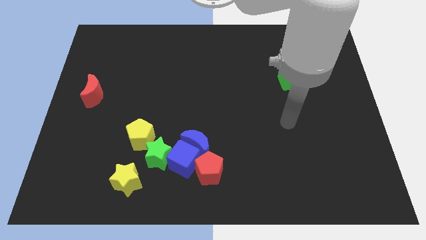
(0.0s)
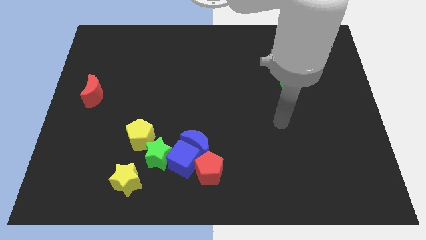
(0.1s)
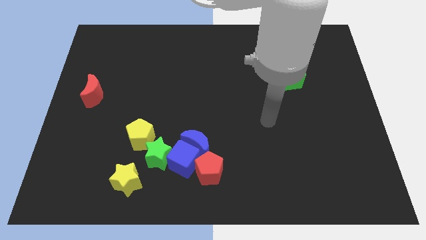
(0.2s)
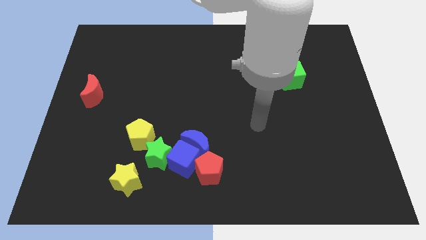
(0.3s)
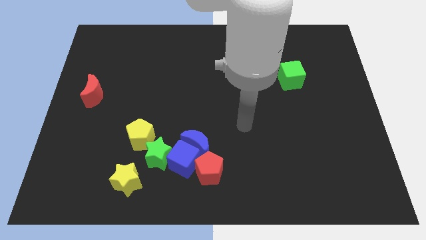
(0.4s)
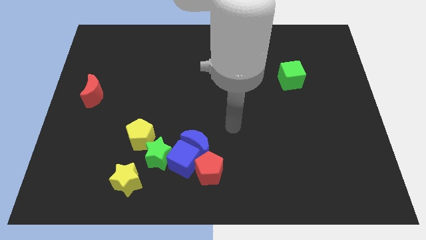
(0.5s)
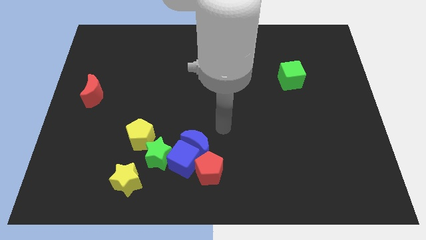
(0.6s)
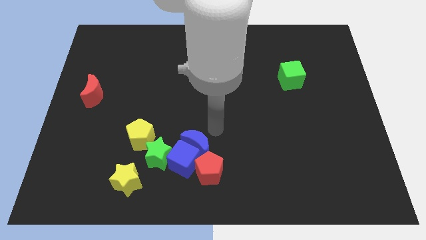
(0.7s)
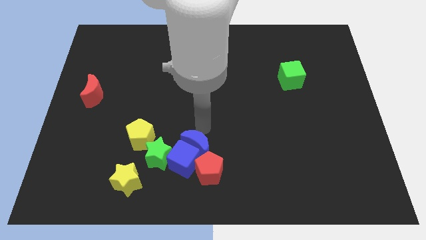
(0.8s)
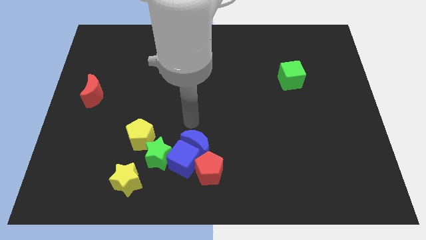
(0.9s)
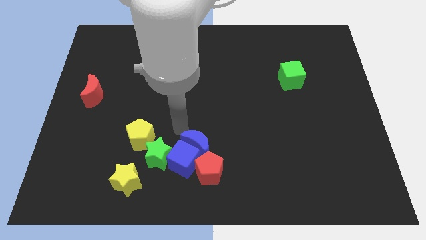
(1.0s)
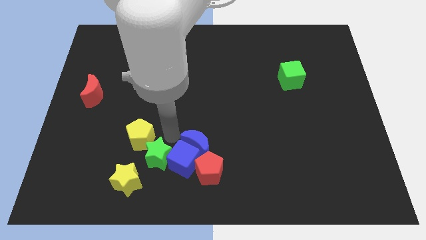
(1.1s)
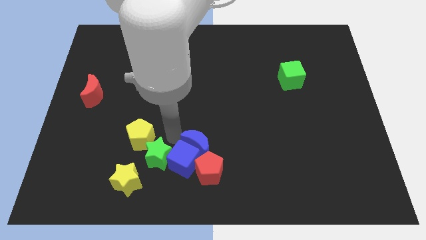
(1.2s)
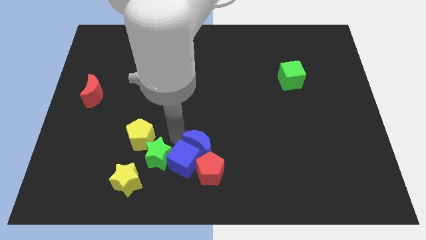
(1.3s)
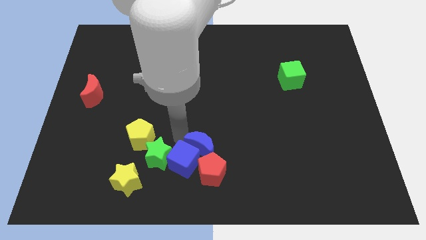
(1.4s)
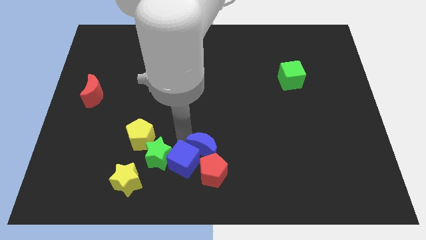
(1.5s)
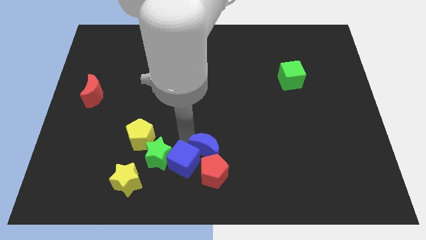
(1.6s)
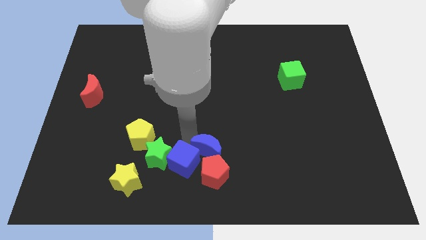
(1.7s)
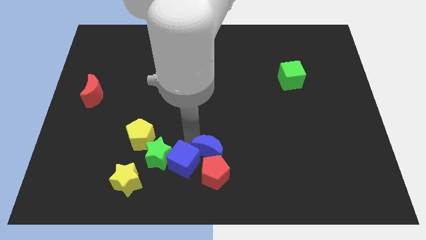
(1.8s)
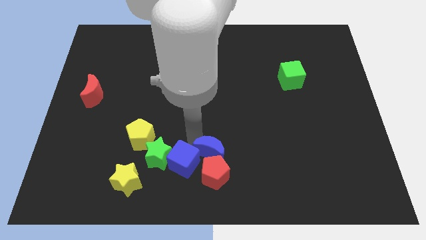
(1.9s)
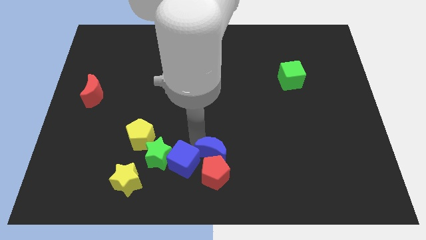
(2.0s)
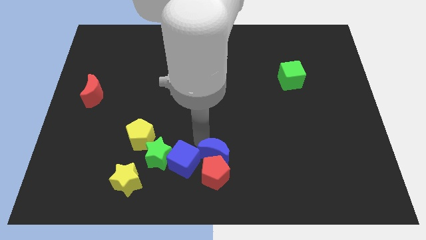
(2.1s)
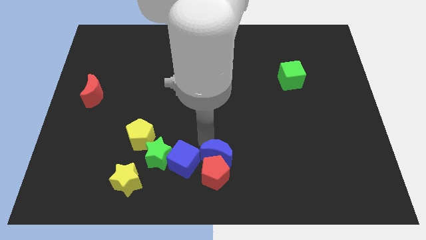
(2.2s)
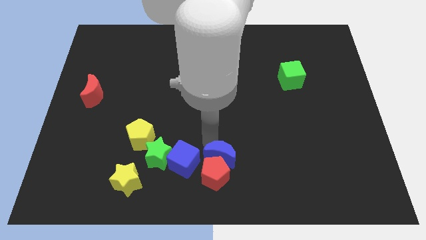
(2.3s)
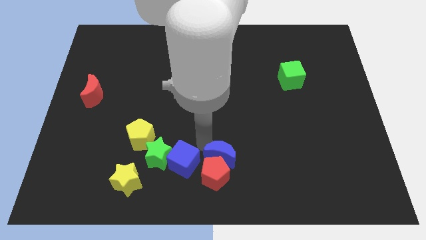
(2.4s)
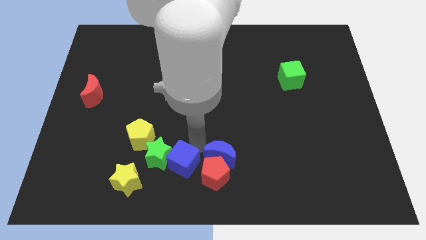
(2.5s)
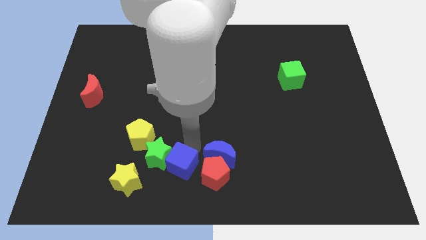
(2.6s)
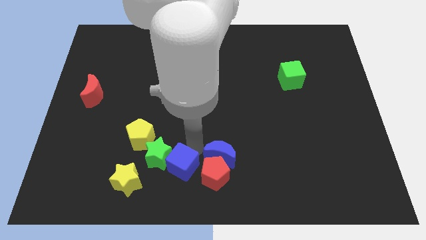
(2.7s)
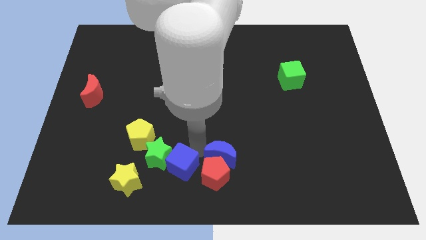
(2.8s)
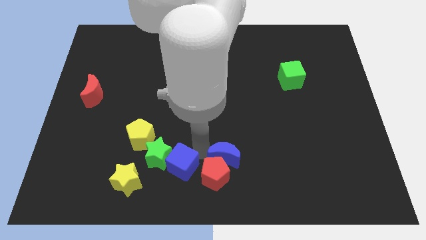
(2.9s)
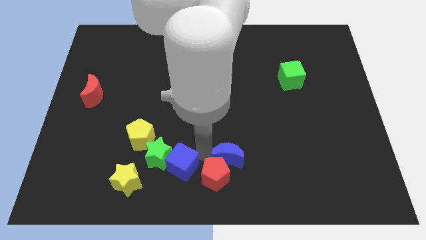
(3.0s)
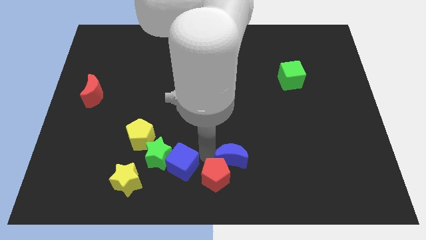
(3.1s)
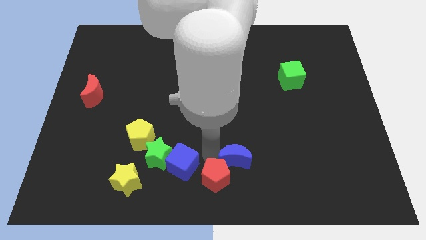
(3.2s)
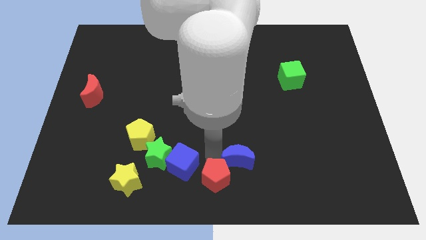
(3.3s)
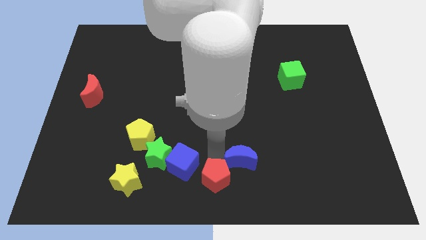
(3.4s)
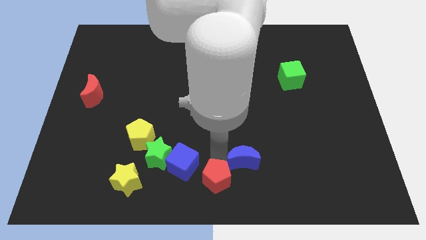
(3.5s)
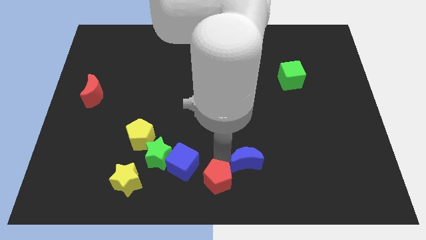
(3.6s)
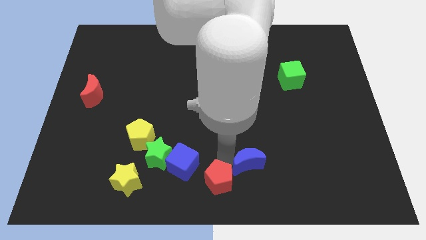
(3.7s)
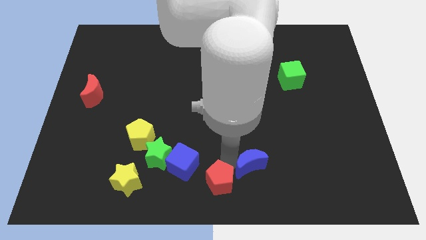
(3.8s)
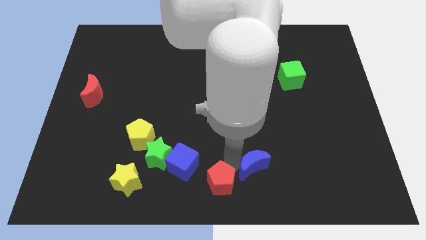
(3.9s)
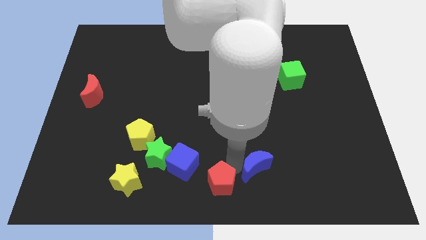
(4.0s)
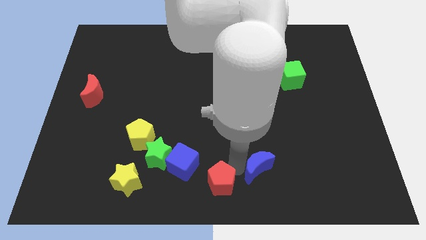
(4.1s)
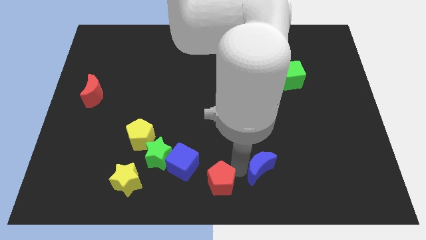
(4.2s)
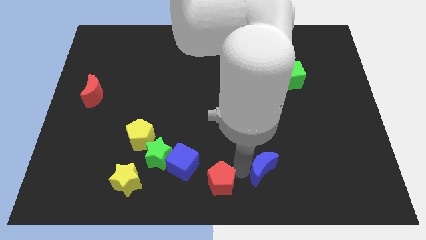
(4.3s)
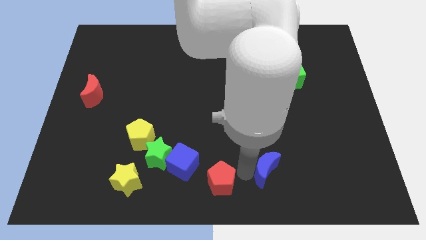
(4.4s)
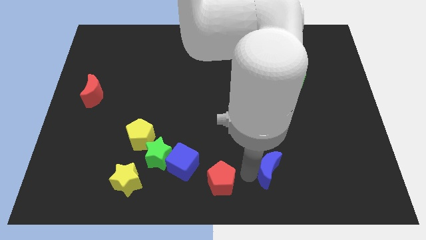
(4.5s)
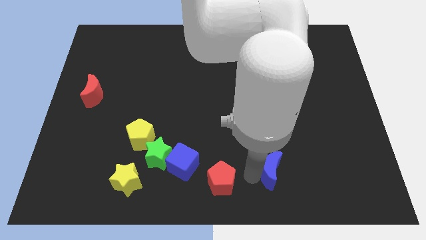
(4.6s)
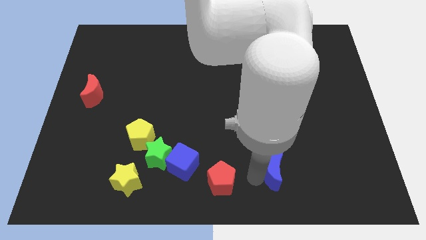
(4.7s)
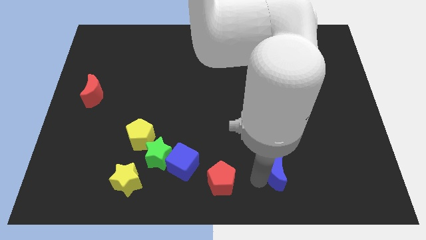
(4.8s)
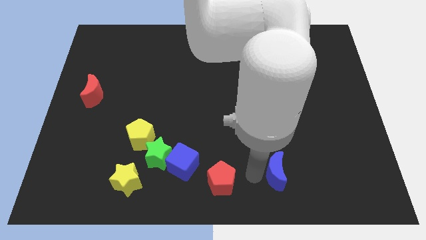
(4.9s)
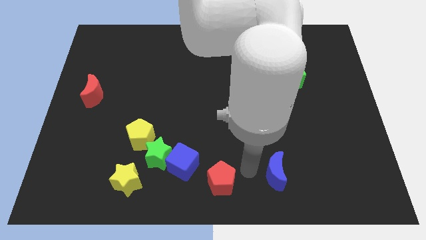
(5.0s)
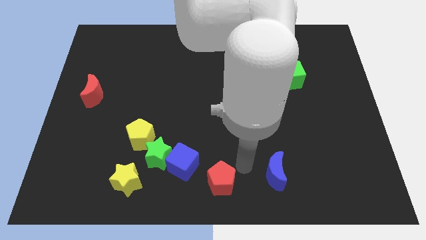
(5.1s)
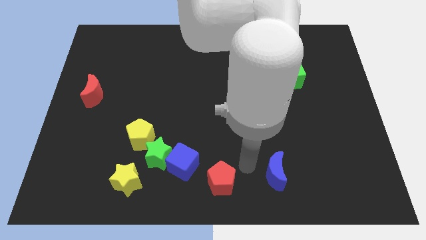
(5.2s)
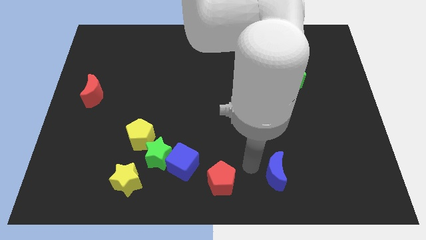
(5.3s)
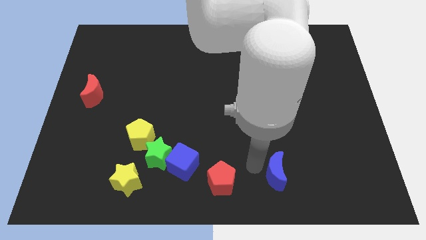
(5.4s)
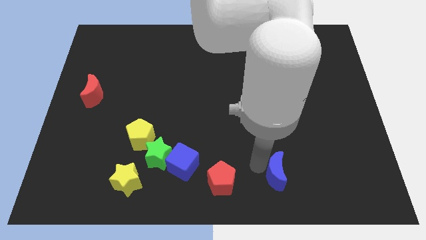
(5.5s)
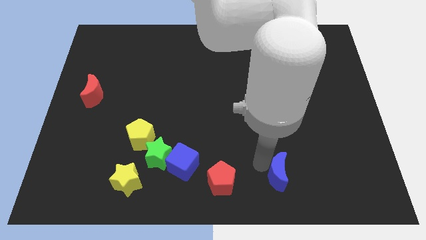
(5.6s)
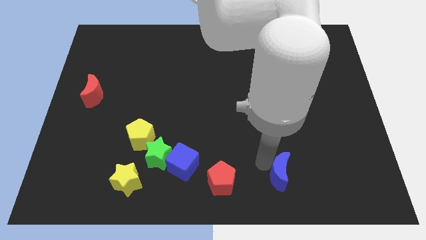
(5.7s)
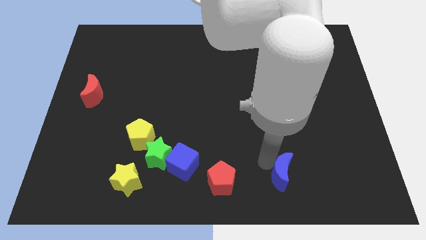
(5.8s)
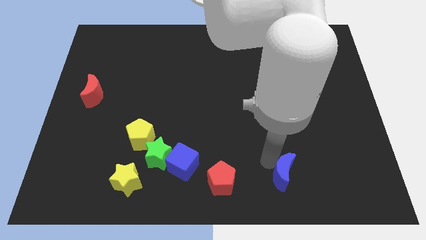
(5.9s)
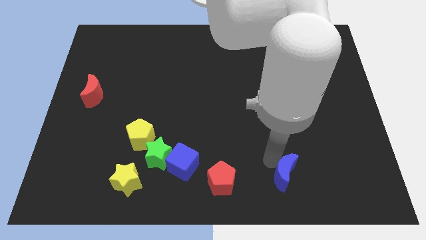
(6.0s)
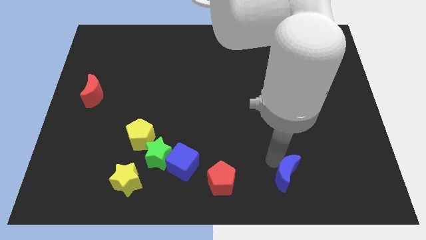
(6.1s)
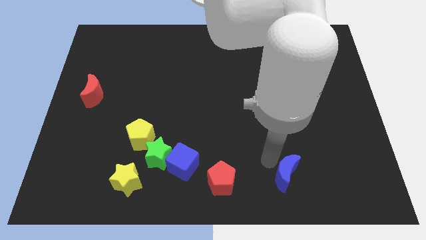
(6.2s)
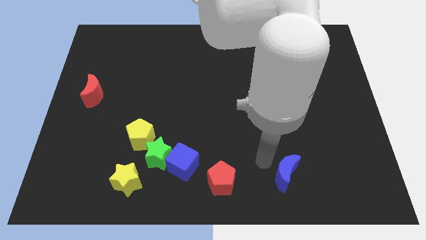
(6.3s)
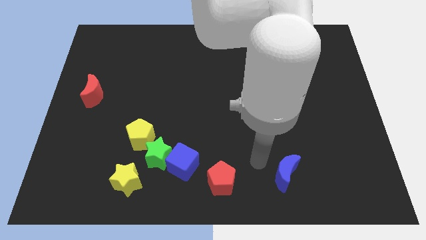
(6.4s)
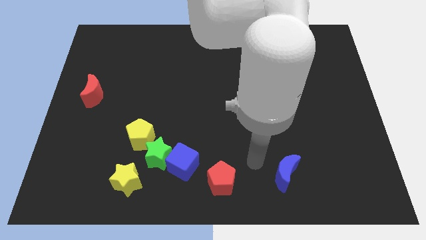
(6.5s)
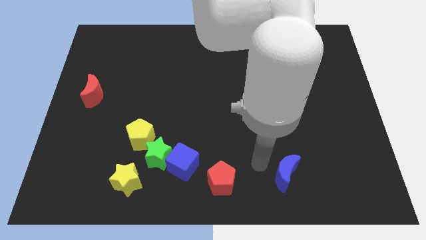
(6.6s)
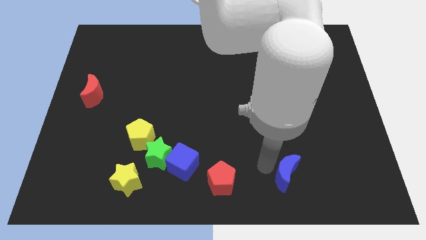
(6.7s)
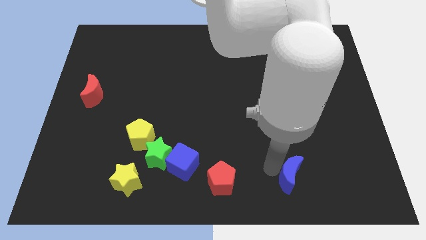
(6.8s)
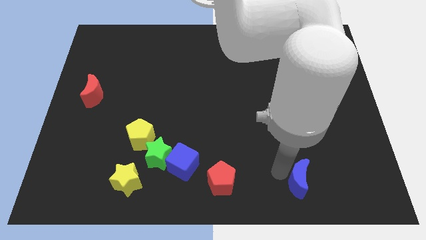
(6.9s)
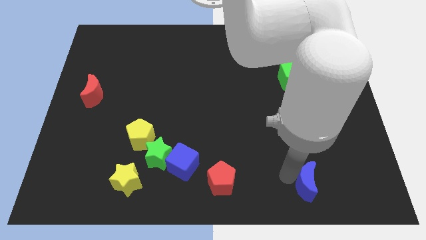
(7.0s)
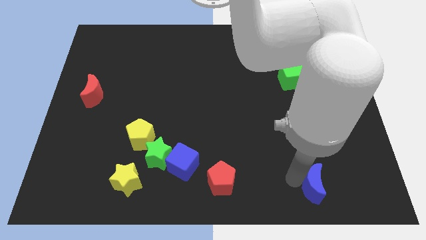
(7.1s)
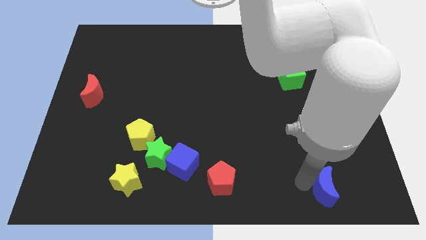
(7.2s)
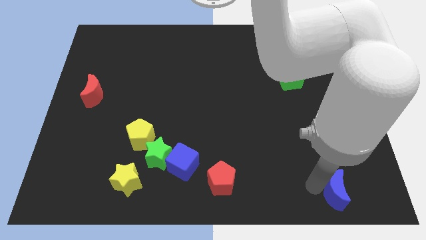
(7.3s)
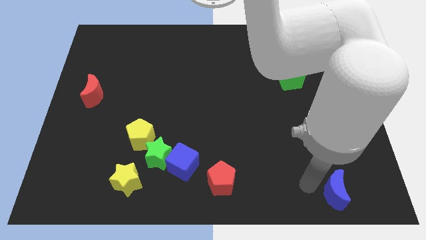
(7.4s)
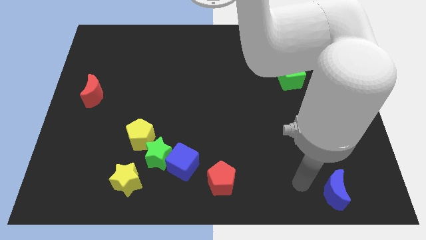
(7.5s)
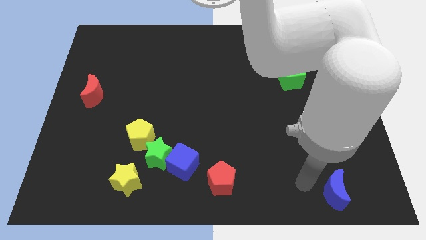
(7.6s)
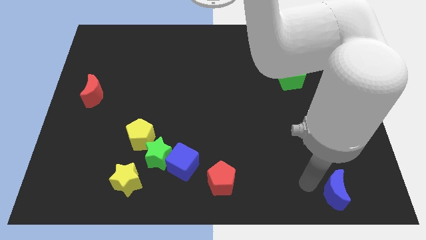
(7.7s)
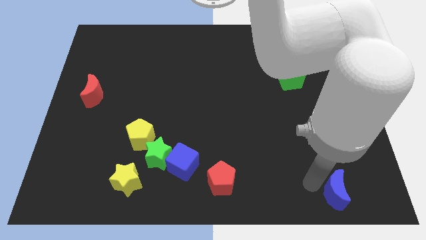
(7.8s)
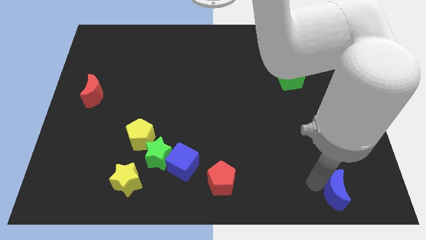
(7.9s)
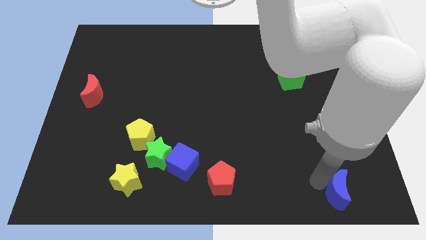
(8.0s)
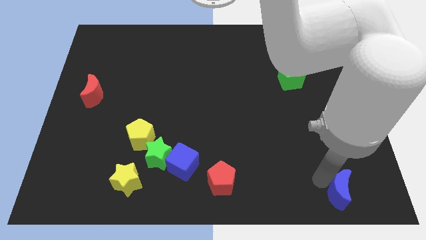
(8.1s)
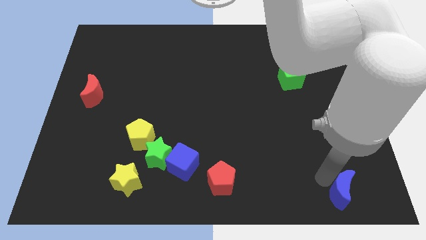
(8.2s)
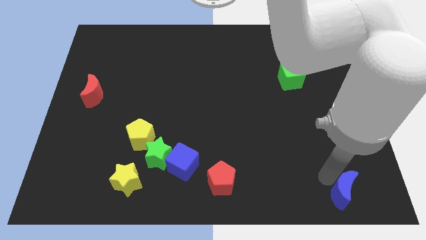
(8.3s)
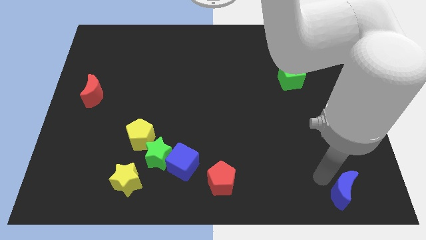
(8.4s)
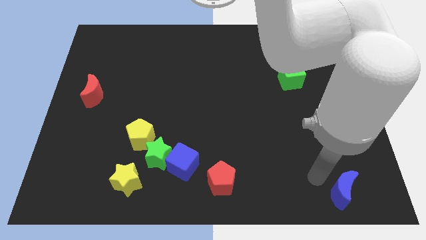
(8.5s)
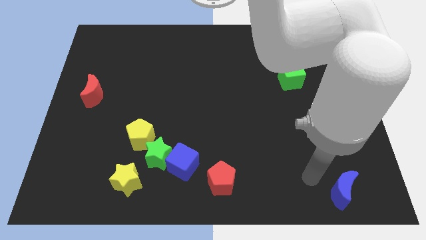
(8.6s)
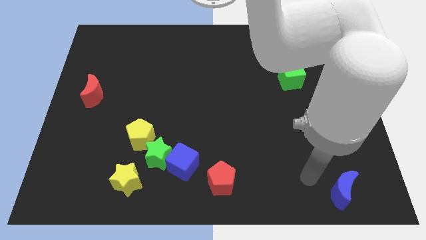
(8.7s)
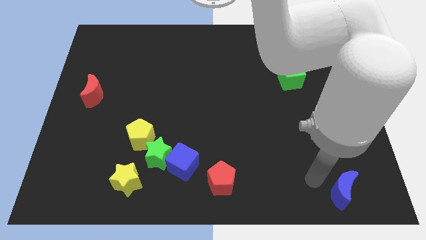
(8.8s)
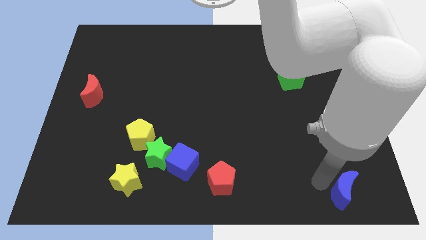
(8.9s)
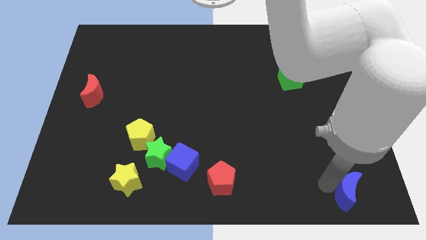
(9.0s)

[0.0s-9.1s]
push the blue moon to the bottom right corner
